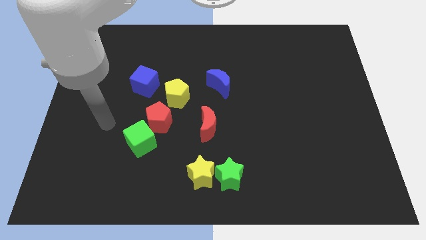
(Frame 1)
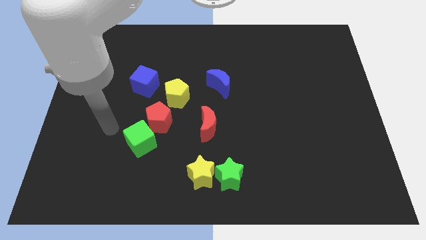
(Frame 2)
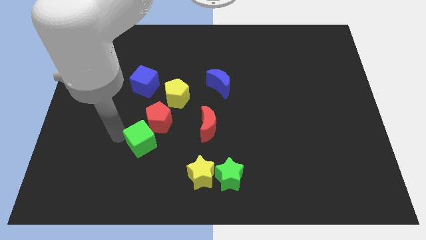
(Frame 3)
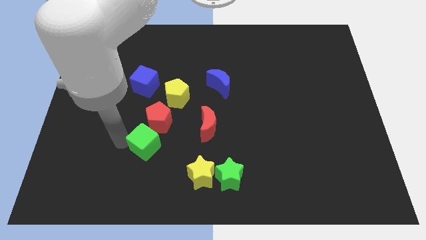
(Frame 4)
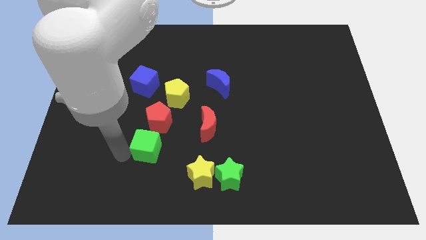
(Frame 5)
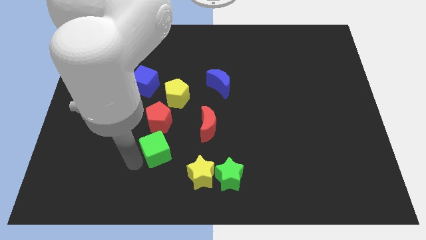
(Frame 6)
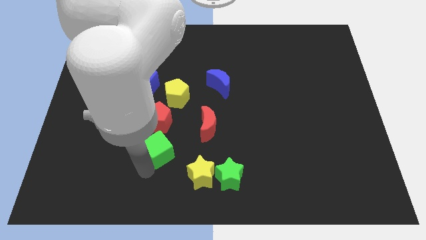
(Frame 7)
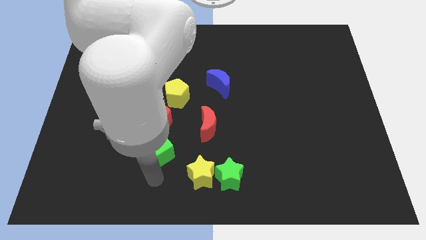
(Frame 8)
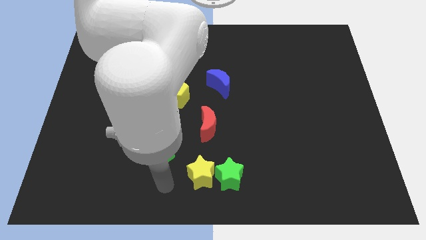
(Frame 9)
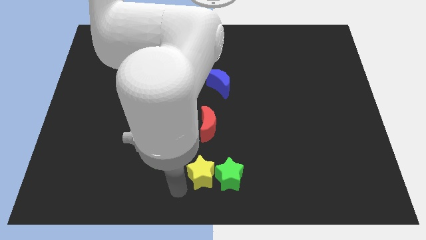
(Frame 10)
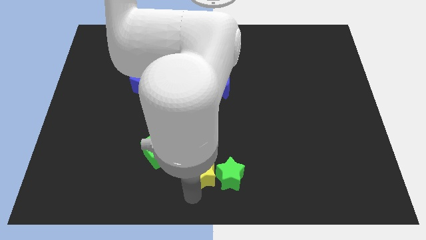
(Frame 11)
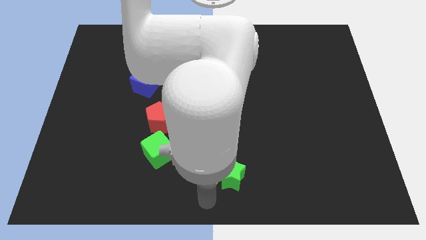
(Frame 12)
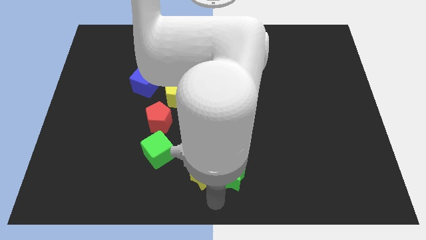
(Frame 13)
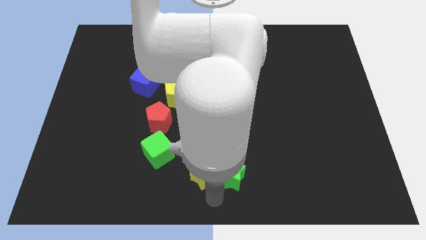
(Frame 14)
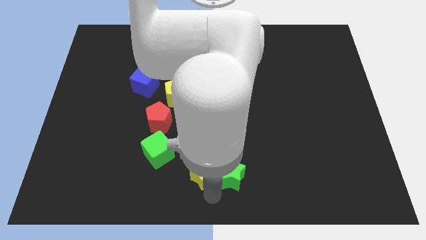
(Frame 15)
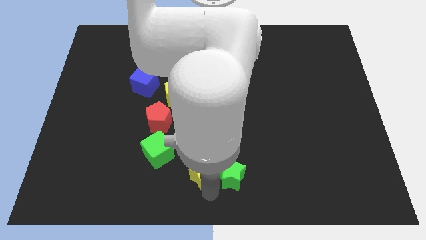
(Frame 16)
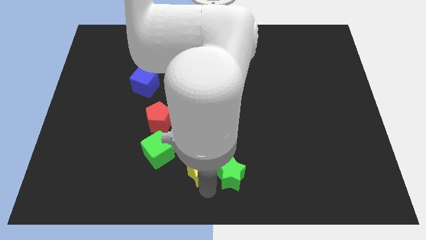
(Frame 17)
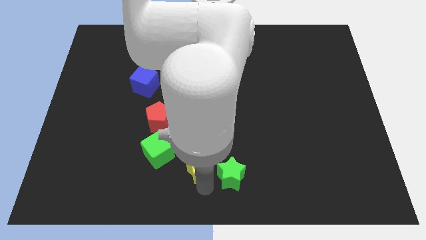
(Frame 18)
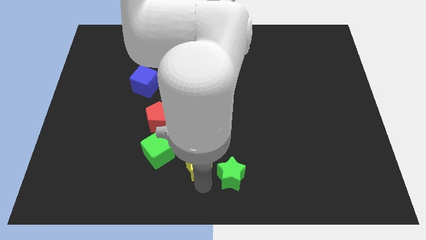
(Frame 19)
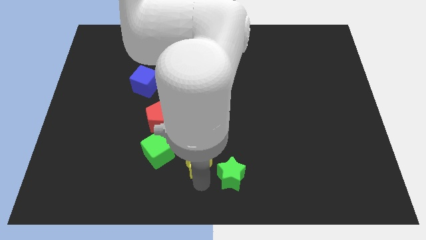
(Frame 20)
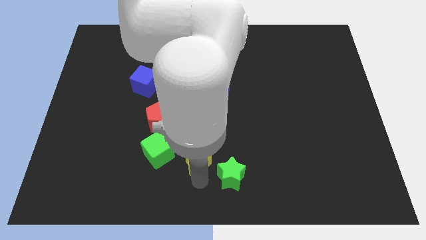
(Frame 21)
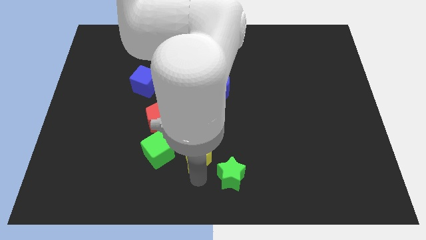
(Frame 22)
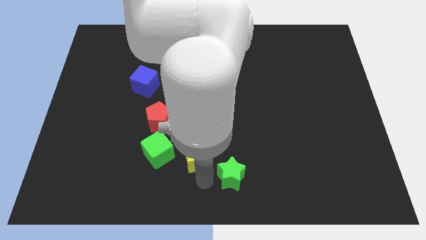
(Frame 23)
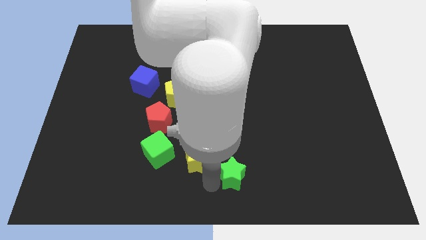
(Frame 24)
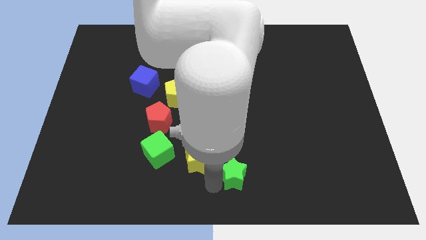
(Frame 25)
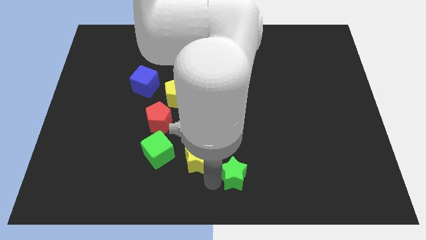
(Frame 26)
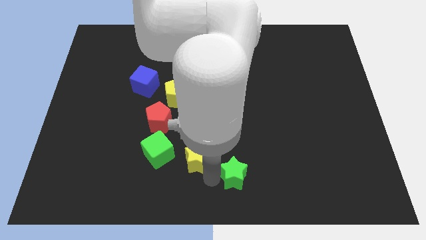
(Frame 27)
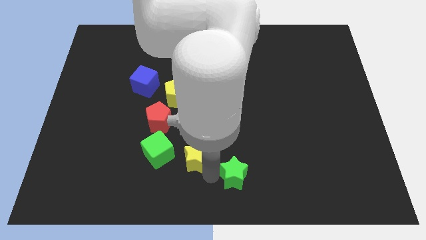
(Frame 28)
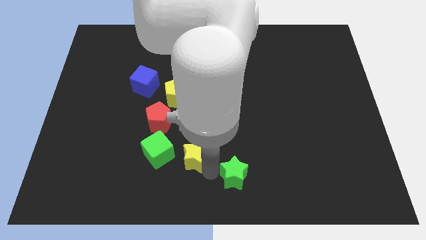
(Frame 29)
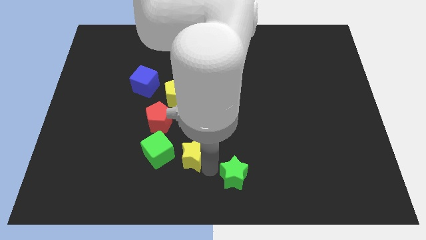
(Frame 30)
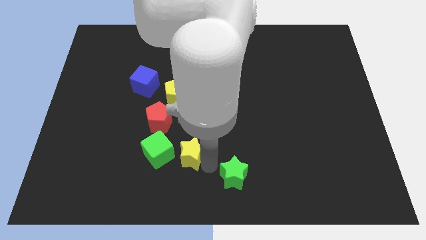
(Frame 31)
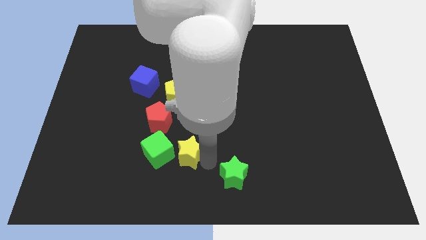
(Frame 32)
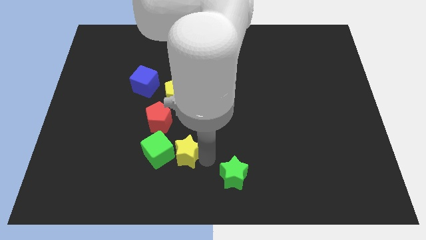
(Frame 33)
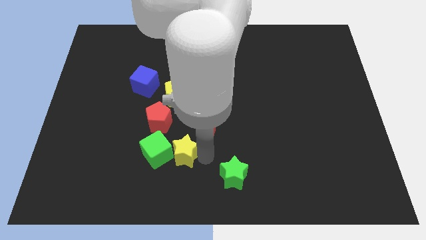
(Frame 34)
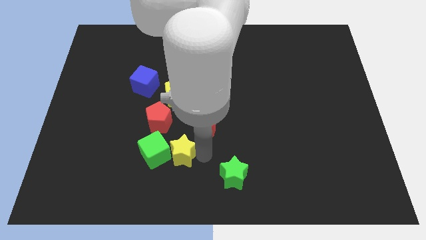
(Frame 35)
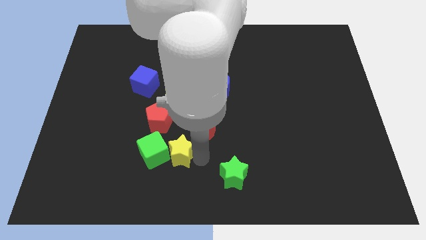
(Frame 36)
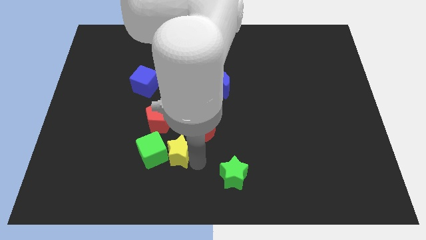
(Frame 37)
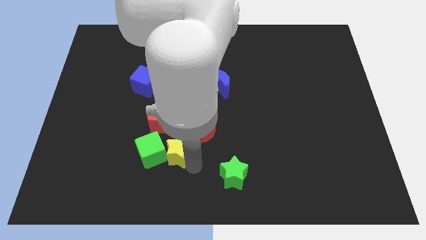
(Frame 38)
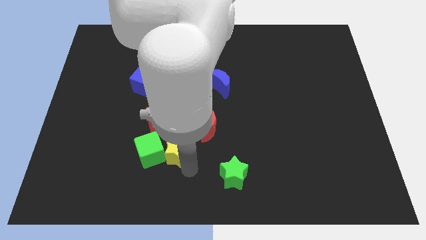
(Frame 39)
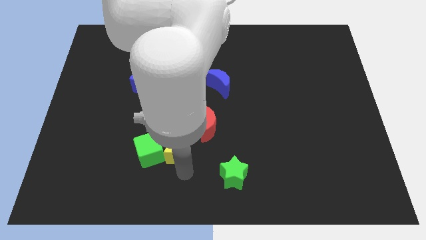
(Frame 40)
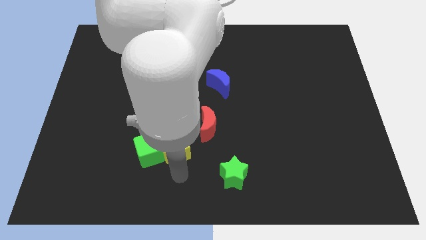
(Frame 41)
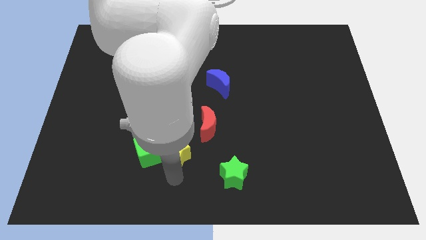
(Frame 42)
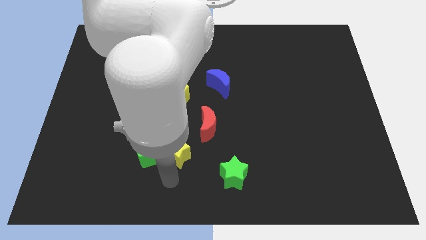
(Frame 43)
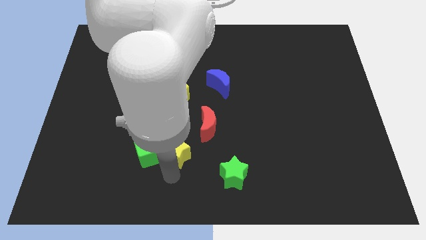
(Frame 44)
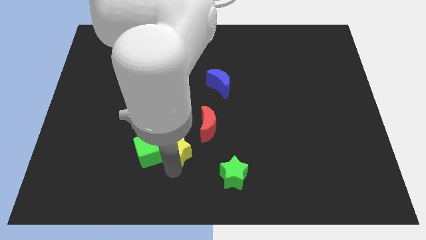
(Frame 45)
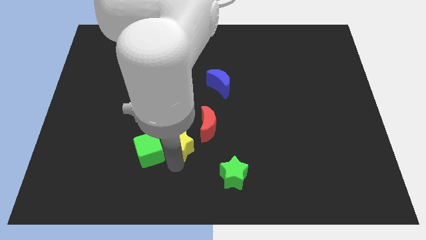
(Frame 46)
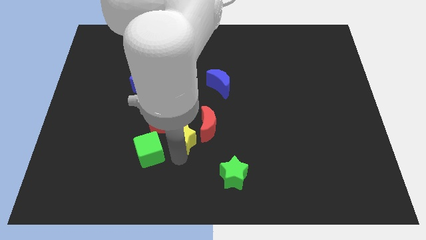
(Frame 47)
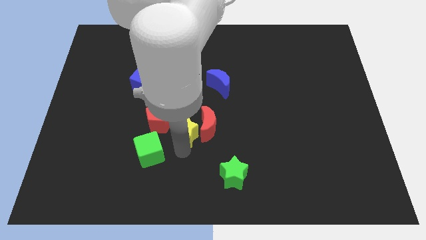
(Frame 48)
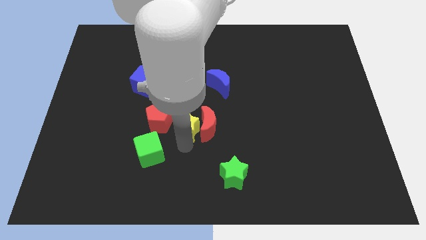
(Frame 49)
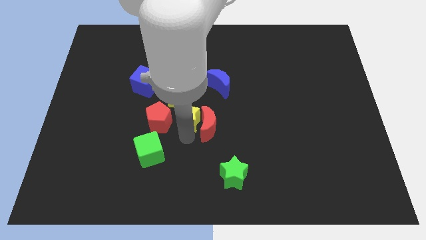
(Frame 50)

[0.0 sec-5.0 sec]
put the yellow star to the top right side of the red pentagon

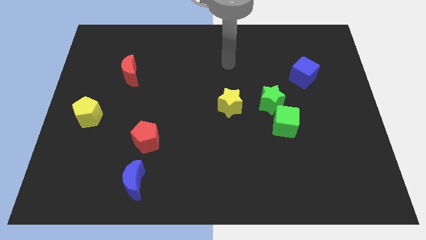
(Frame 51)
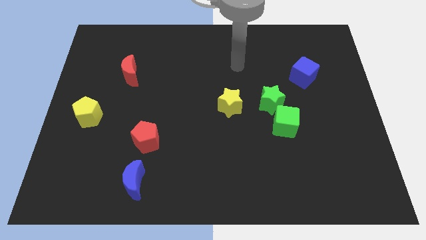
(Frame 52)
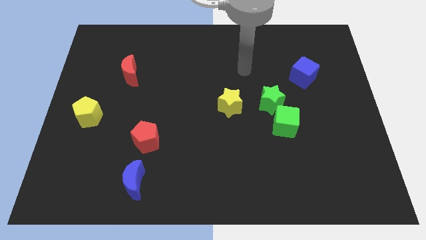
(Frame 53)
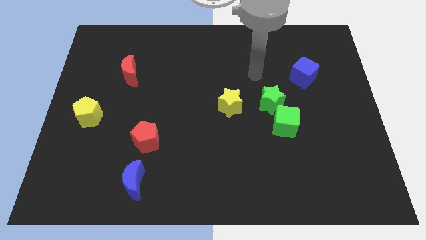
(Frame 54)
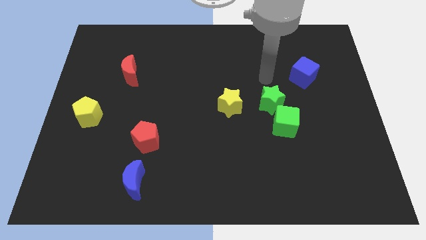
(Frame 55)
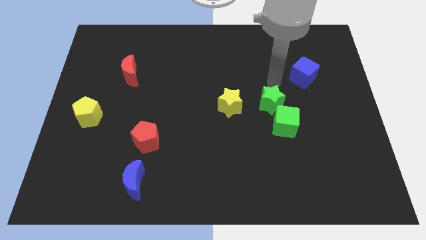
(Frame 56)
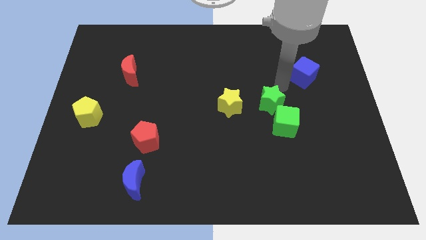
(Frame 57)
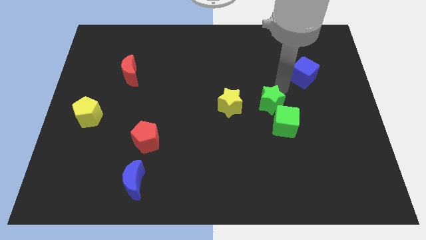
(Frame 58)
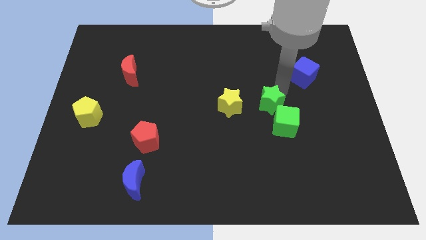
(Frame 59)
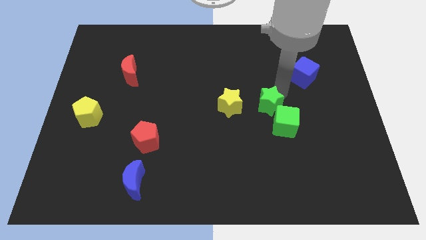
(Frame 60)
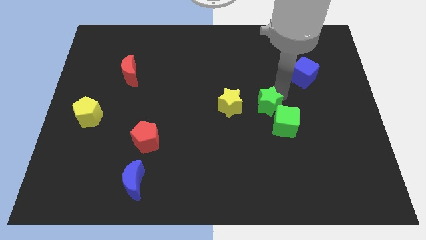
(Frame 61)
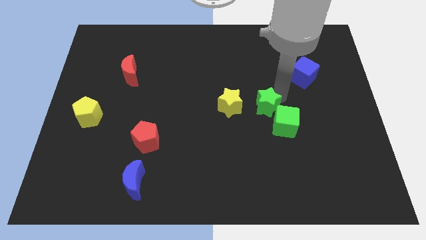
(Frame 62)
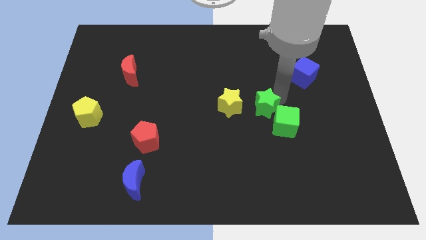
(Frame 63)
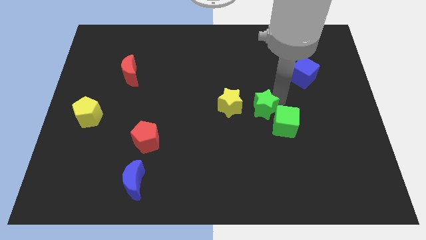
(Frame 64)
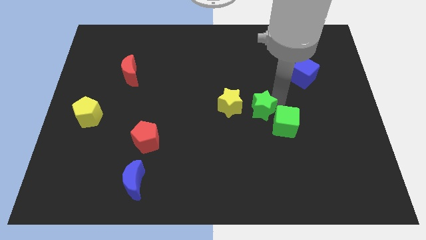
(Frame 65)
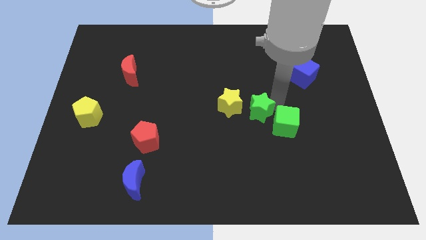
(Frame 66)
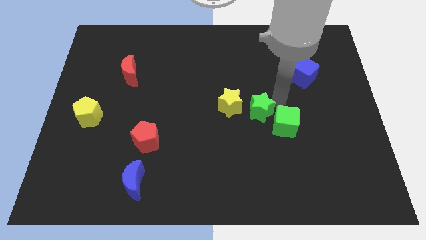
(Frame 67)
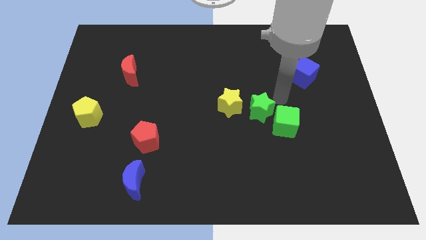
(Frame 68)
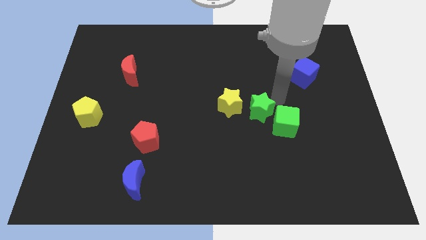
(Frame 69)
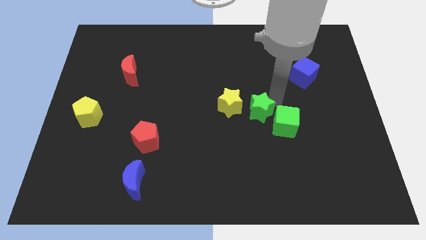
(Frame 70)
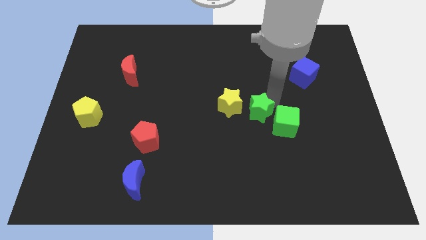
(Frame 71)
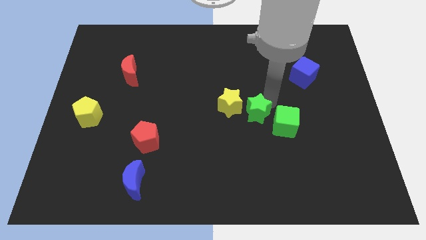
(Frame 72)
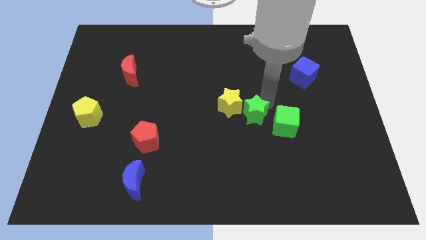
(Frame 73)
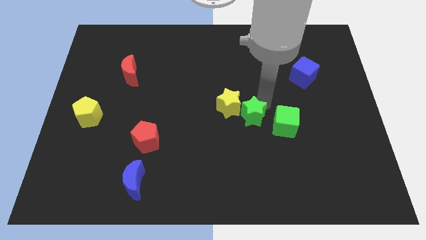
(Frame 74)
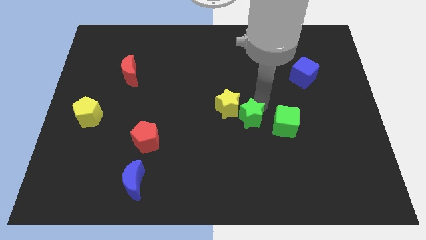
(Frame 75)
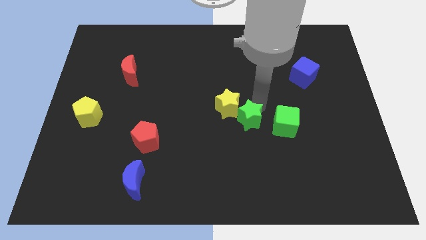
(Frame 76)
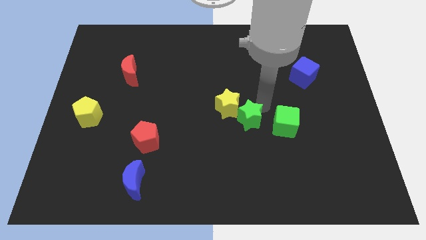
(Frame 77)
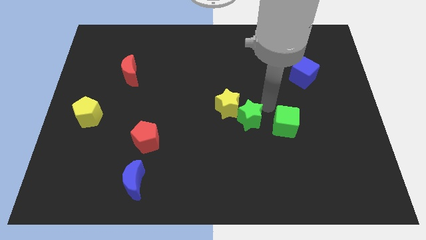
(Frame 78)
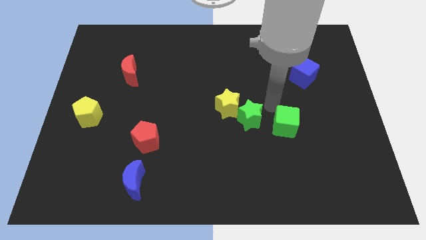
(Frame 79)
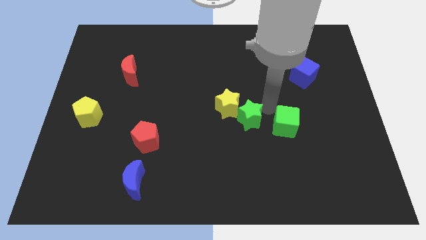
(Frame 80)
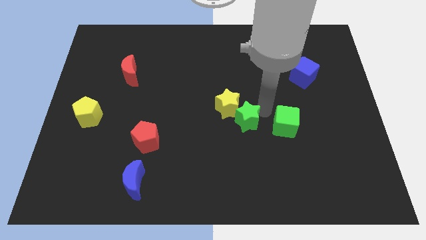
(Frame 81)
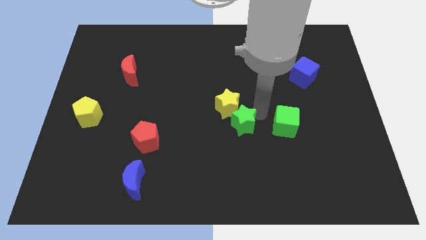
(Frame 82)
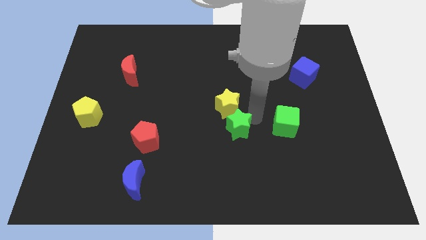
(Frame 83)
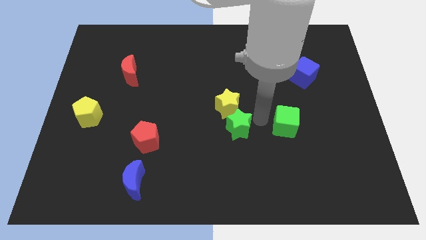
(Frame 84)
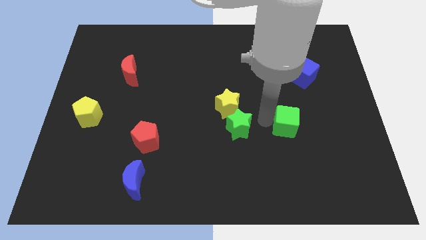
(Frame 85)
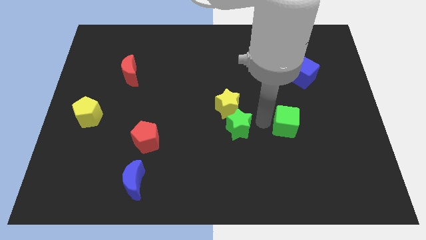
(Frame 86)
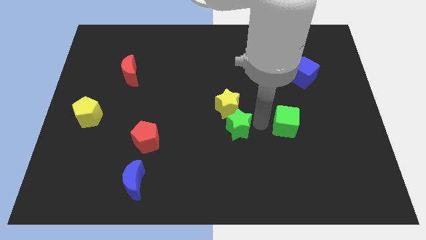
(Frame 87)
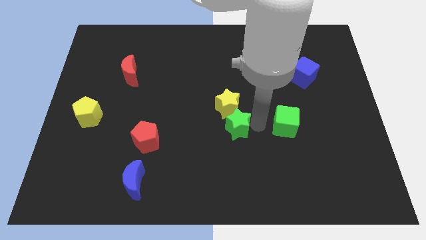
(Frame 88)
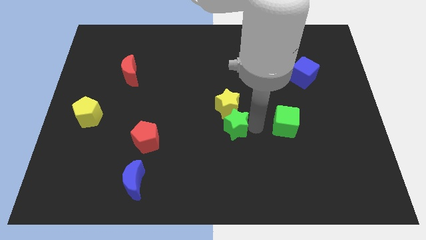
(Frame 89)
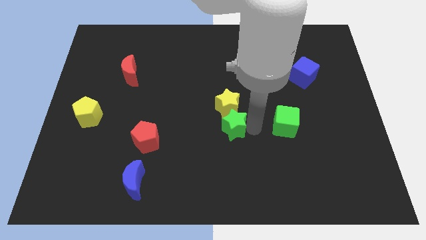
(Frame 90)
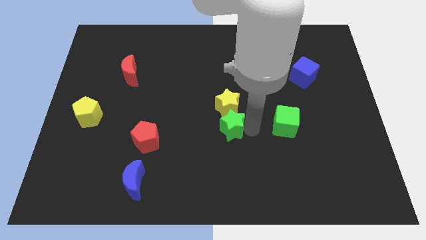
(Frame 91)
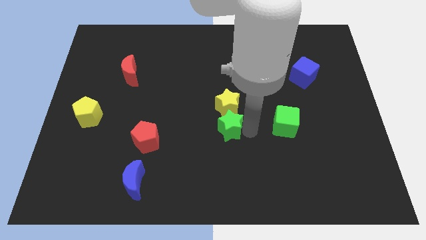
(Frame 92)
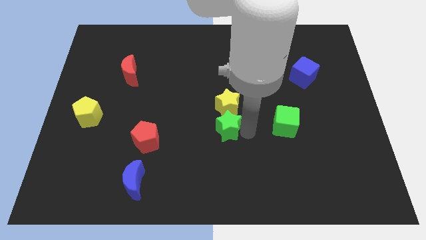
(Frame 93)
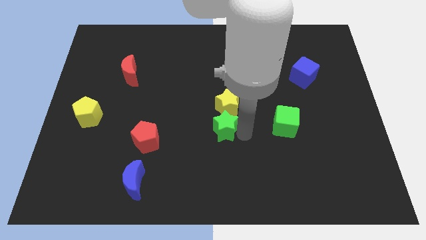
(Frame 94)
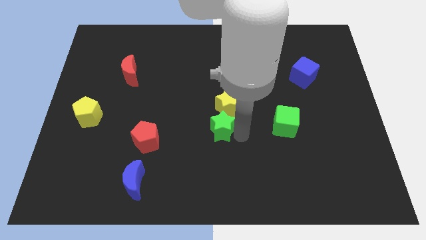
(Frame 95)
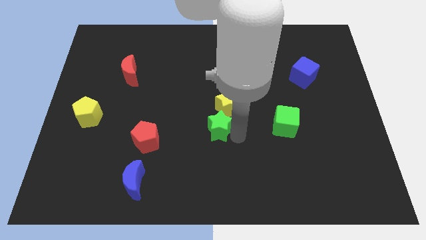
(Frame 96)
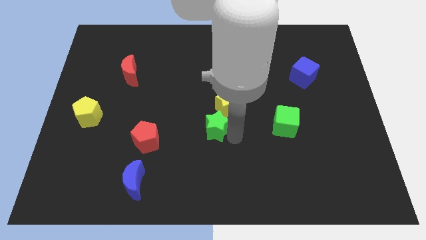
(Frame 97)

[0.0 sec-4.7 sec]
slide the green star just right of the red pentagon
